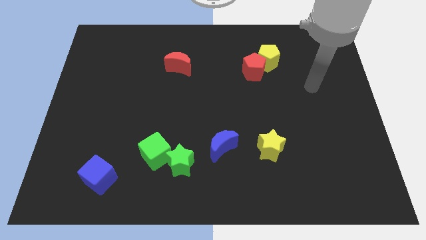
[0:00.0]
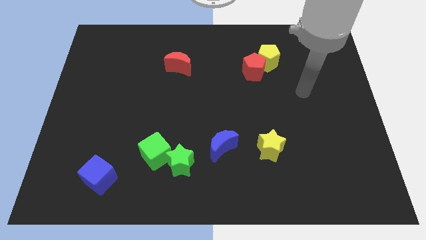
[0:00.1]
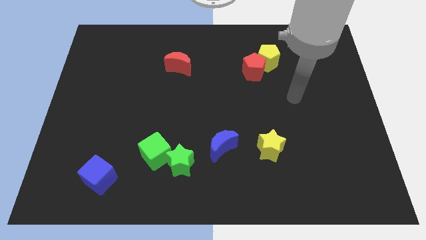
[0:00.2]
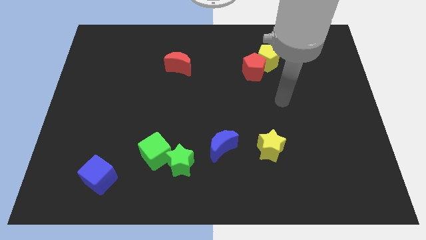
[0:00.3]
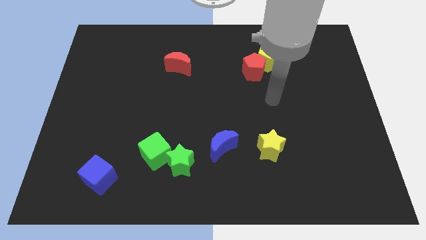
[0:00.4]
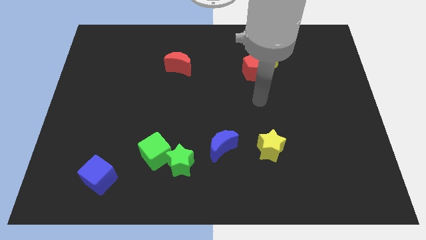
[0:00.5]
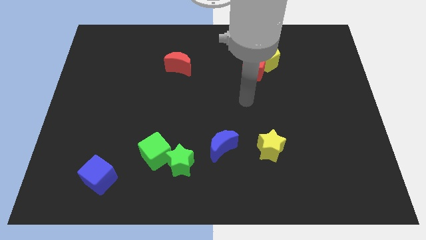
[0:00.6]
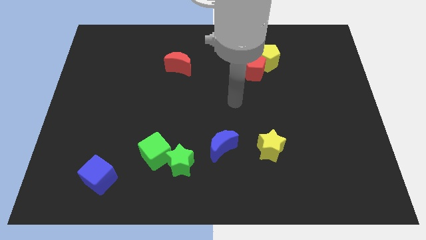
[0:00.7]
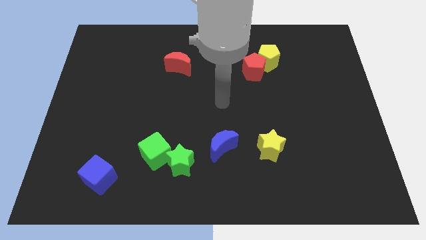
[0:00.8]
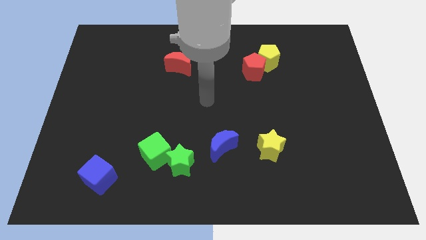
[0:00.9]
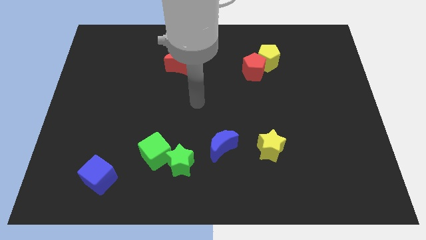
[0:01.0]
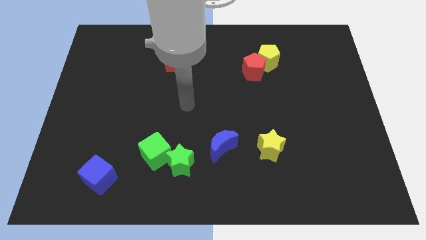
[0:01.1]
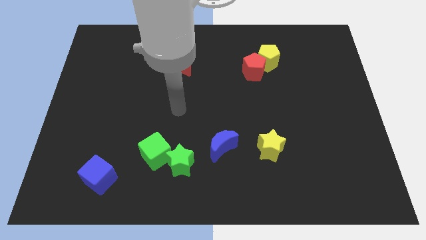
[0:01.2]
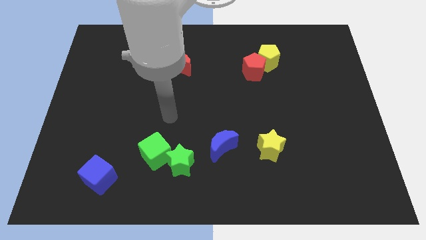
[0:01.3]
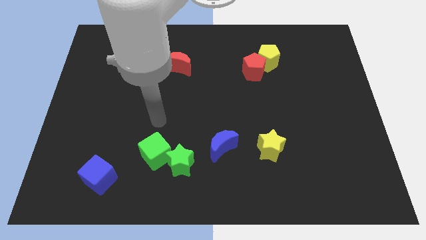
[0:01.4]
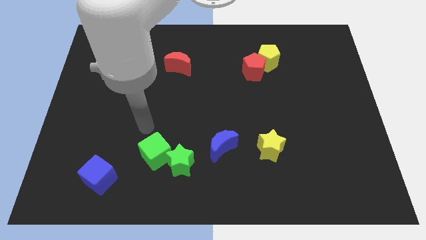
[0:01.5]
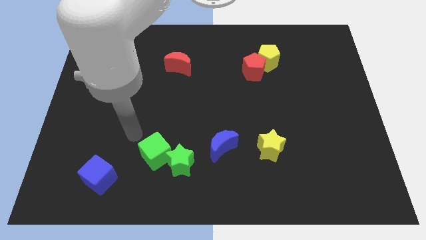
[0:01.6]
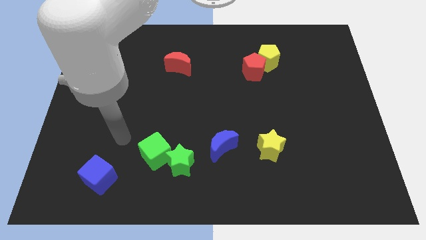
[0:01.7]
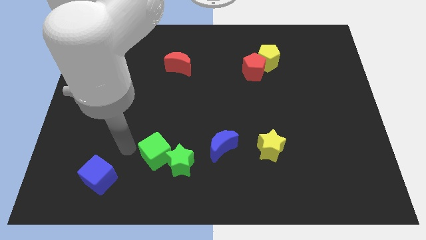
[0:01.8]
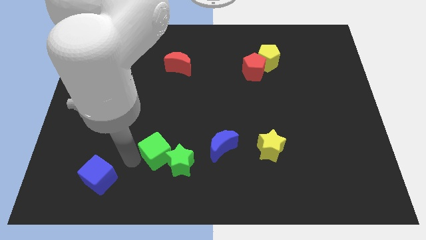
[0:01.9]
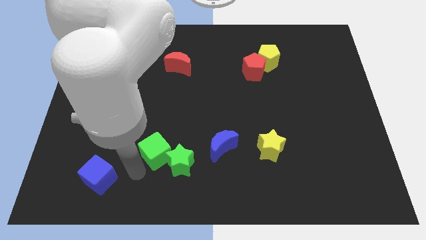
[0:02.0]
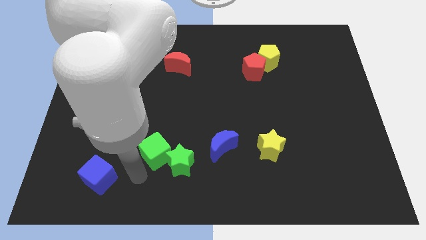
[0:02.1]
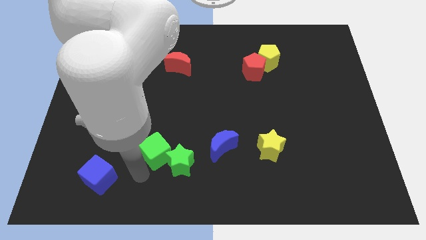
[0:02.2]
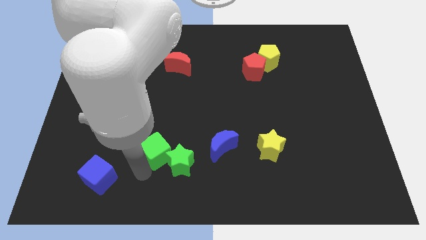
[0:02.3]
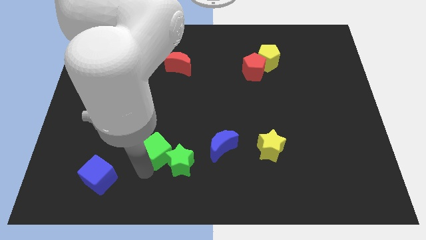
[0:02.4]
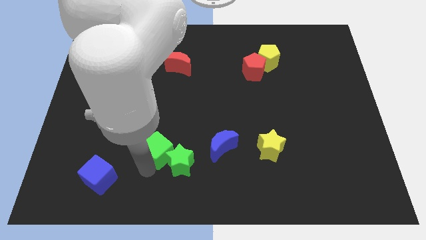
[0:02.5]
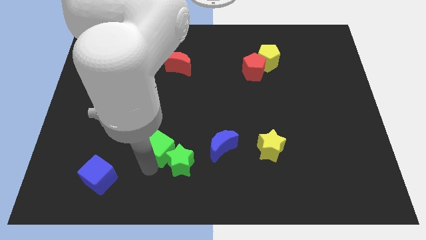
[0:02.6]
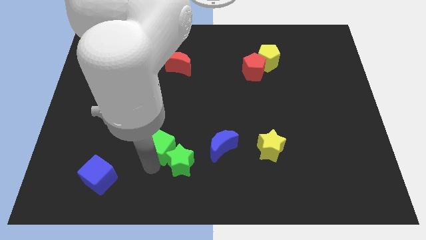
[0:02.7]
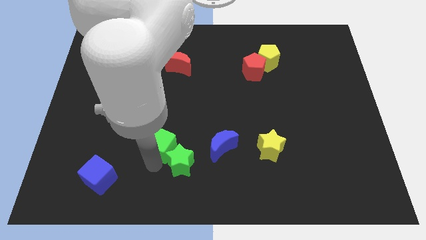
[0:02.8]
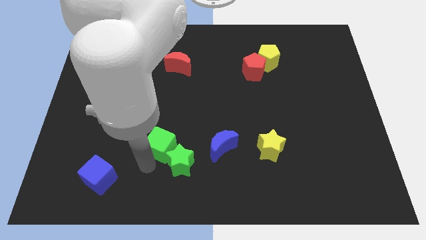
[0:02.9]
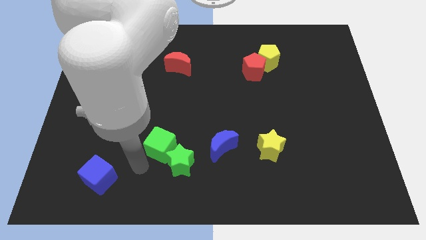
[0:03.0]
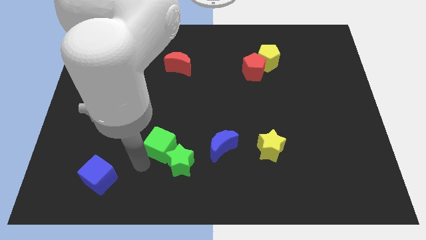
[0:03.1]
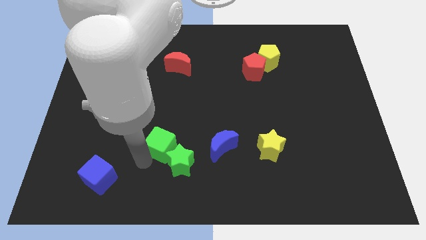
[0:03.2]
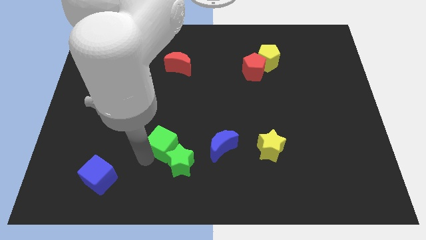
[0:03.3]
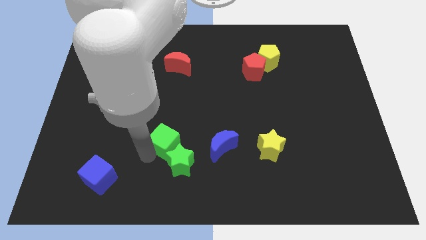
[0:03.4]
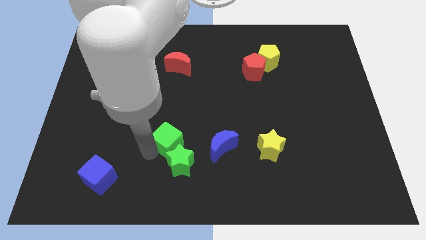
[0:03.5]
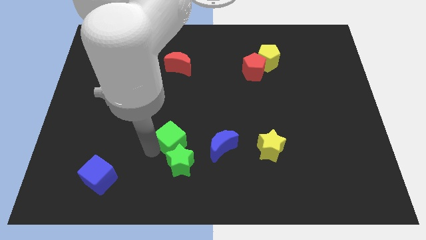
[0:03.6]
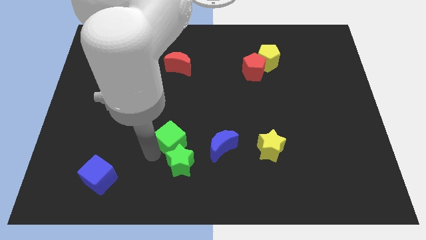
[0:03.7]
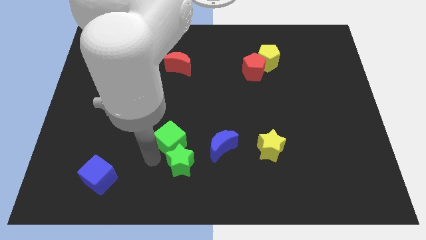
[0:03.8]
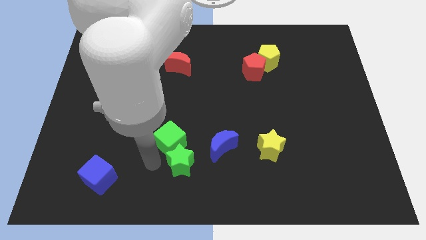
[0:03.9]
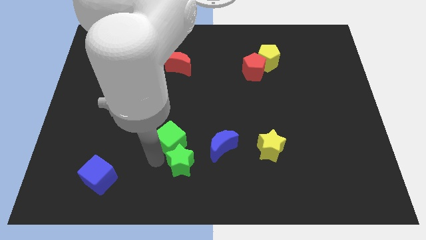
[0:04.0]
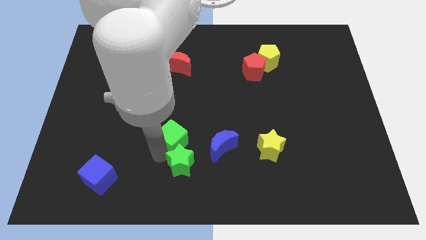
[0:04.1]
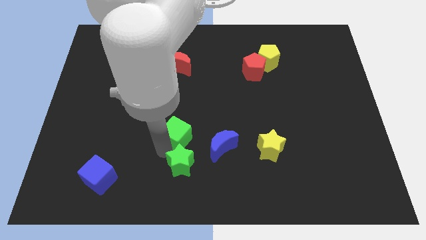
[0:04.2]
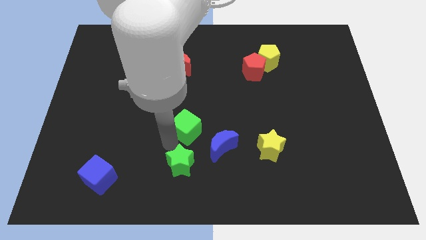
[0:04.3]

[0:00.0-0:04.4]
push the green cube up and right somewhat

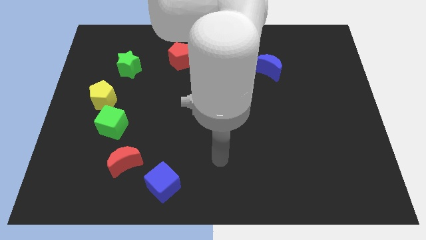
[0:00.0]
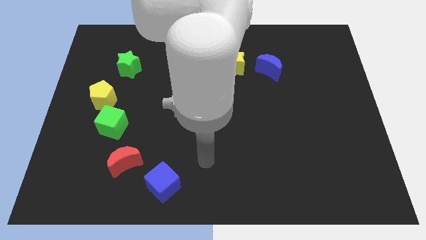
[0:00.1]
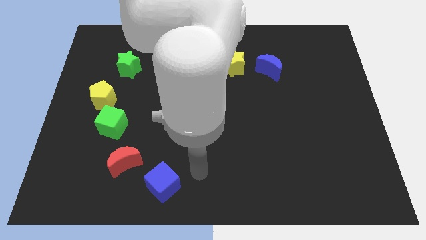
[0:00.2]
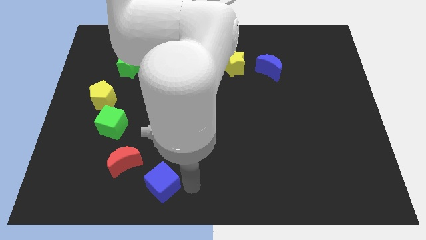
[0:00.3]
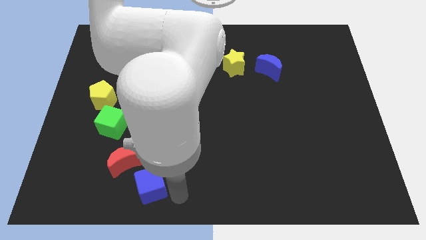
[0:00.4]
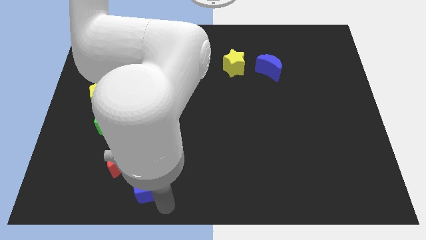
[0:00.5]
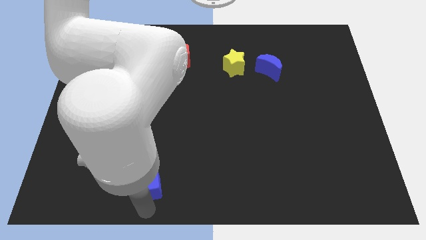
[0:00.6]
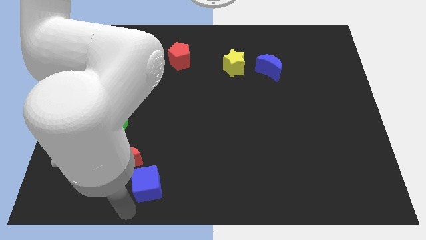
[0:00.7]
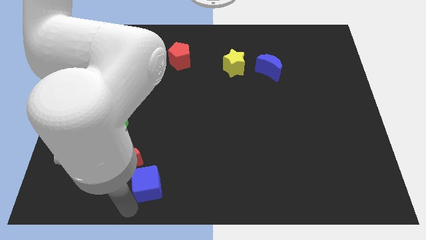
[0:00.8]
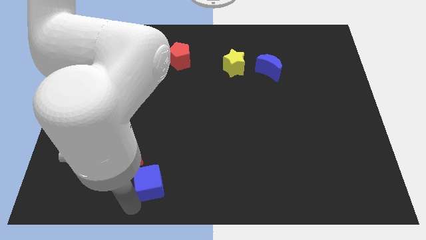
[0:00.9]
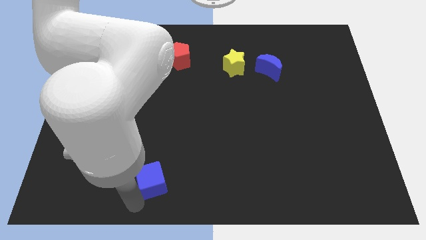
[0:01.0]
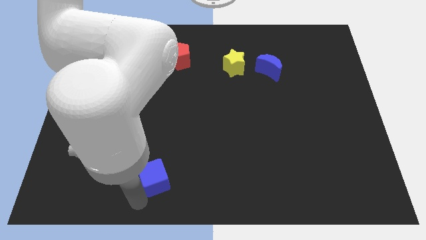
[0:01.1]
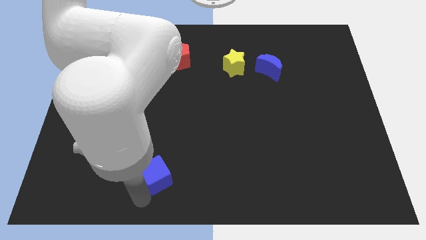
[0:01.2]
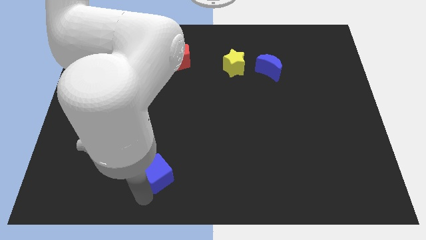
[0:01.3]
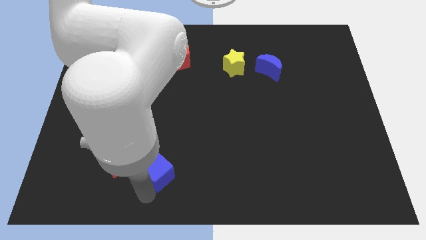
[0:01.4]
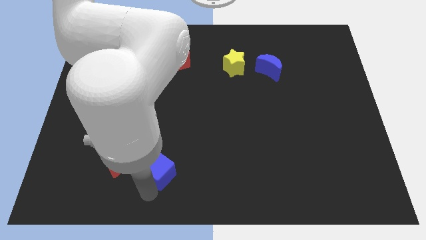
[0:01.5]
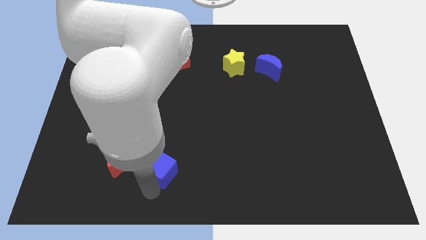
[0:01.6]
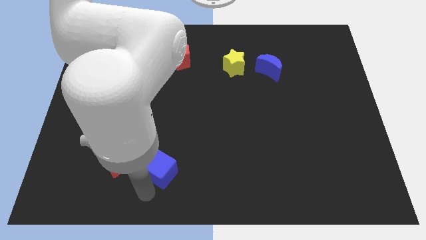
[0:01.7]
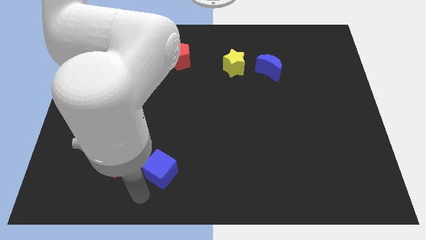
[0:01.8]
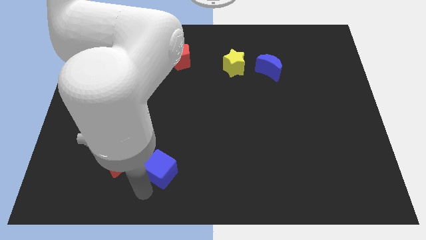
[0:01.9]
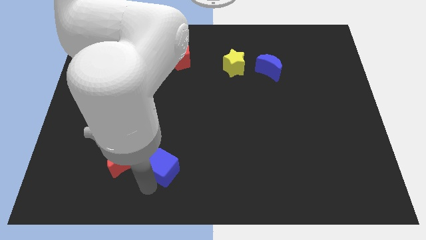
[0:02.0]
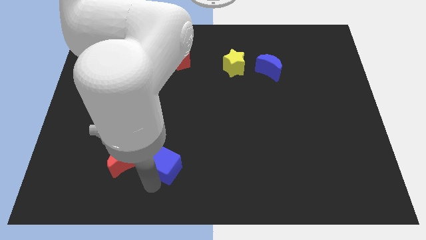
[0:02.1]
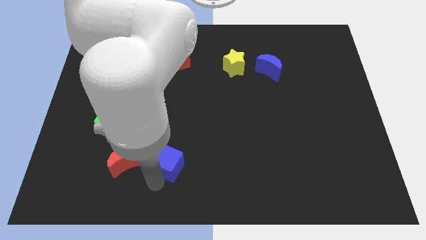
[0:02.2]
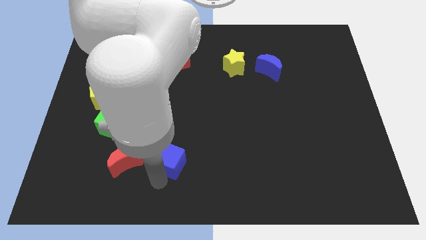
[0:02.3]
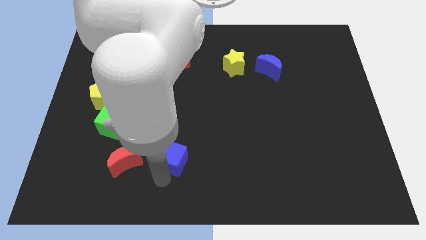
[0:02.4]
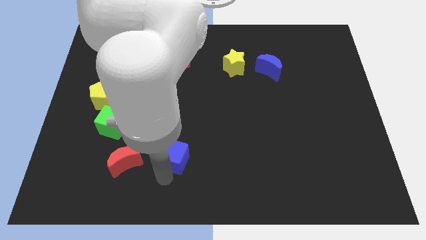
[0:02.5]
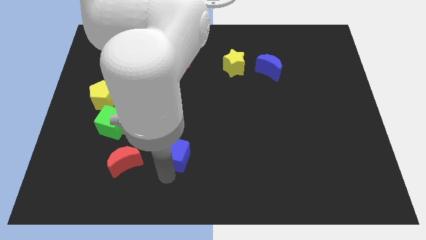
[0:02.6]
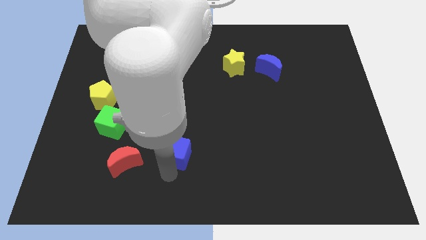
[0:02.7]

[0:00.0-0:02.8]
slightly push the blue cube up

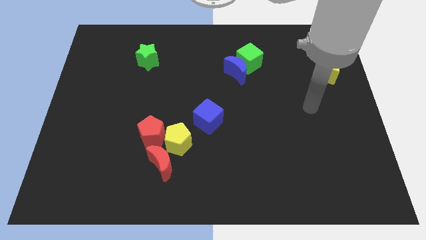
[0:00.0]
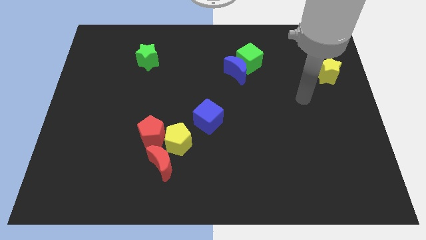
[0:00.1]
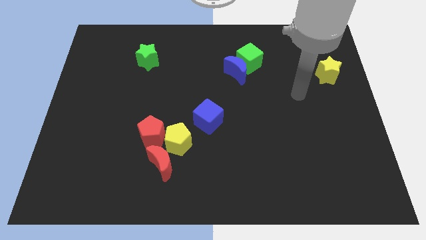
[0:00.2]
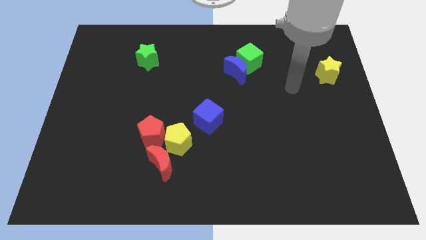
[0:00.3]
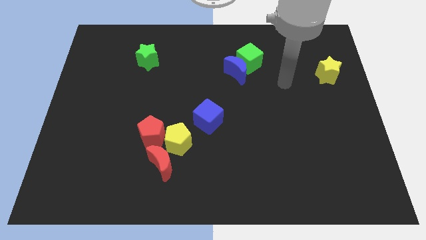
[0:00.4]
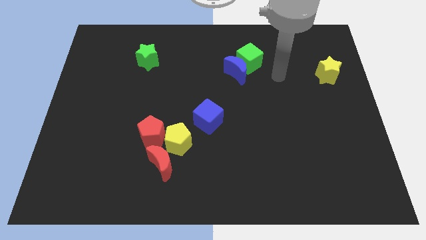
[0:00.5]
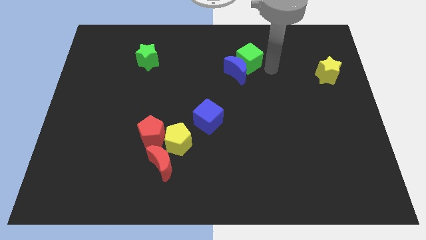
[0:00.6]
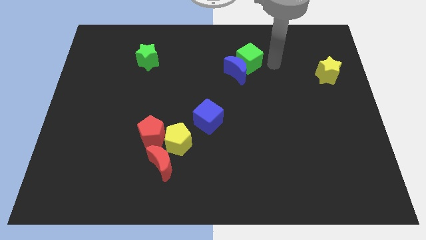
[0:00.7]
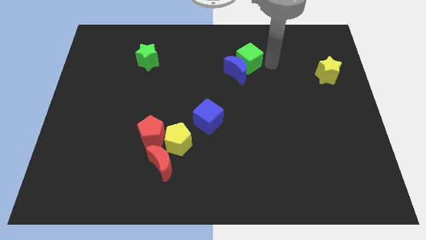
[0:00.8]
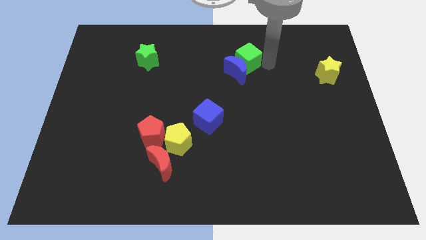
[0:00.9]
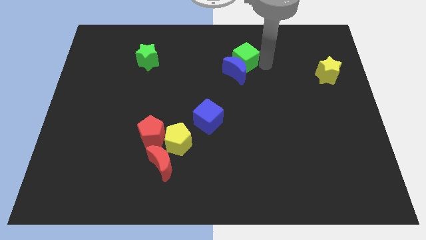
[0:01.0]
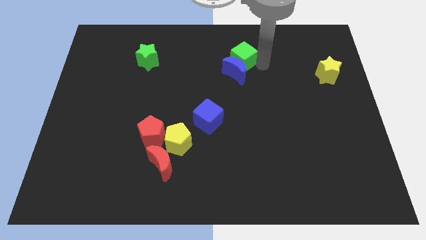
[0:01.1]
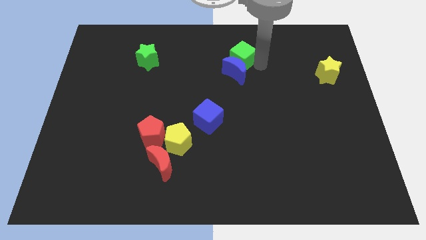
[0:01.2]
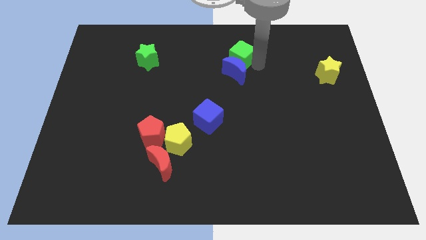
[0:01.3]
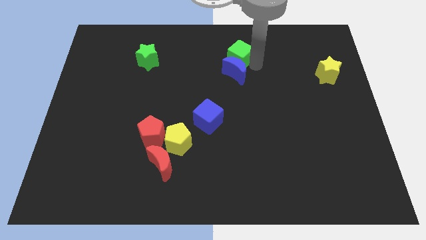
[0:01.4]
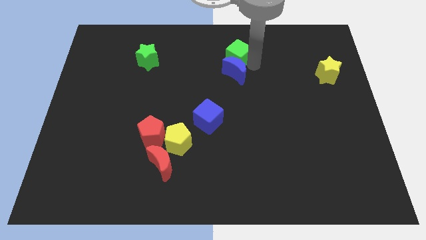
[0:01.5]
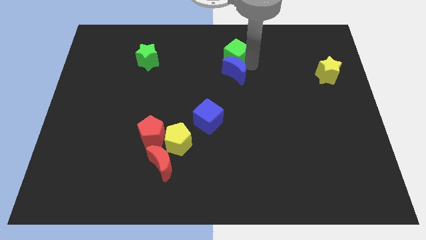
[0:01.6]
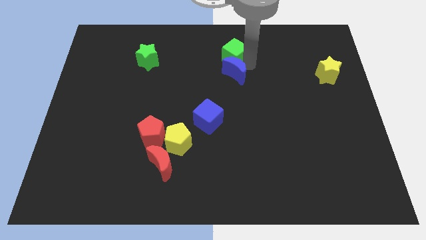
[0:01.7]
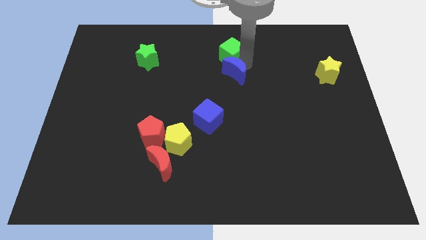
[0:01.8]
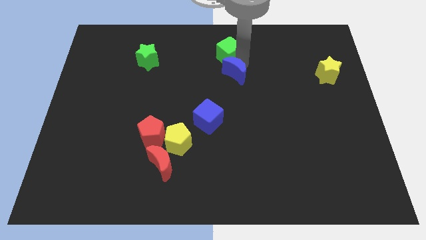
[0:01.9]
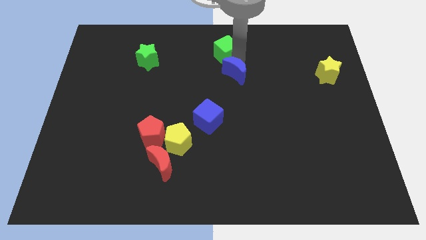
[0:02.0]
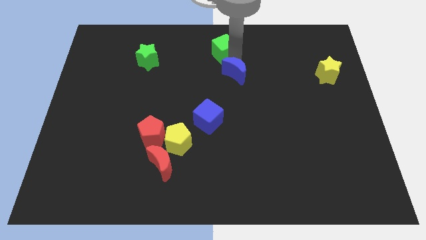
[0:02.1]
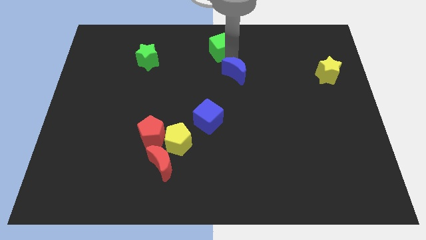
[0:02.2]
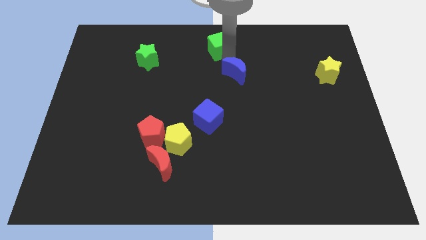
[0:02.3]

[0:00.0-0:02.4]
push the green cube a little bit left
